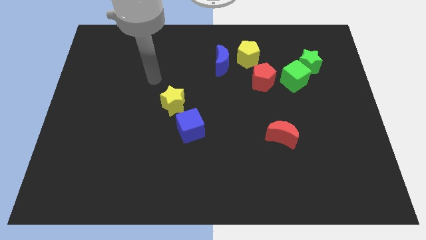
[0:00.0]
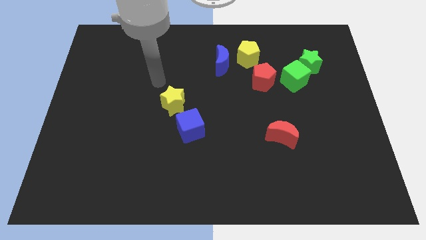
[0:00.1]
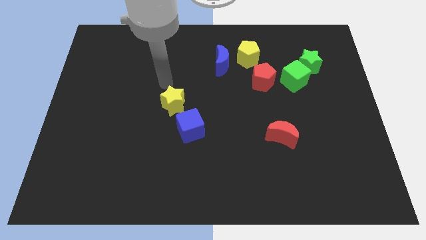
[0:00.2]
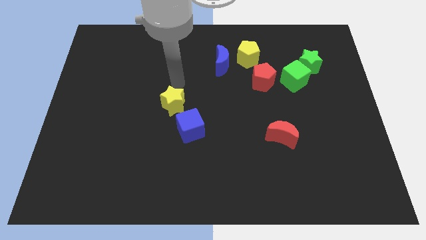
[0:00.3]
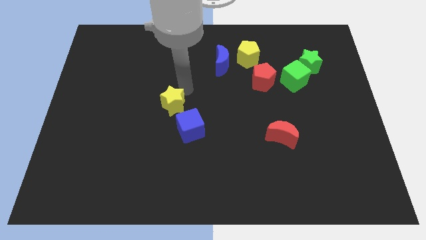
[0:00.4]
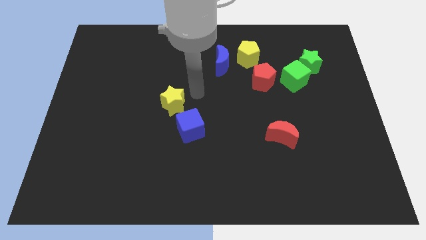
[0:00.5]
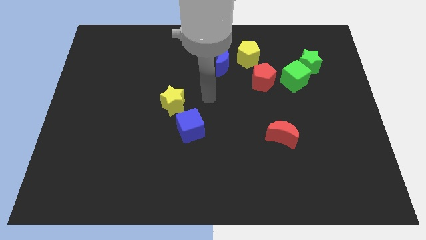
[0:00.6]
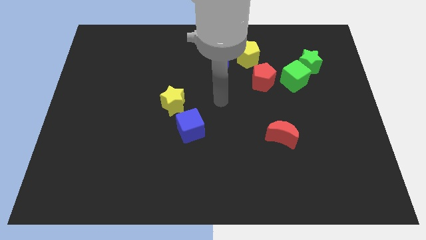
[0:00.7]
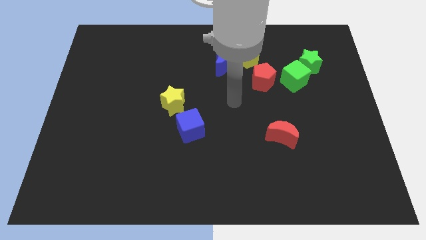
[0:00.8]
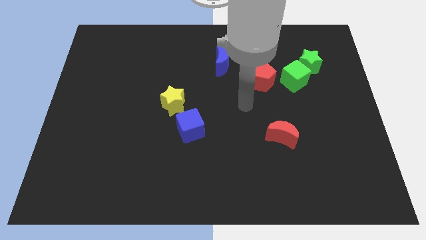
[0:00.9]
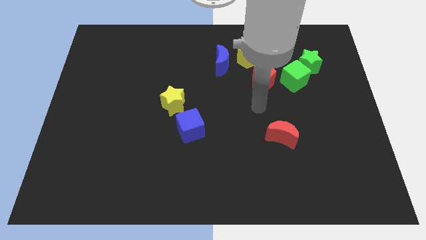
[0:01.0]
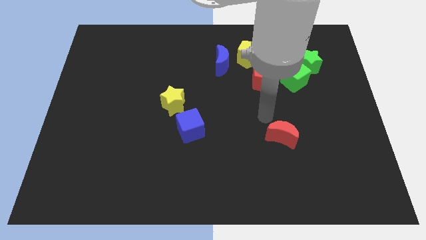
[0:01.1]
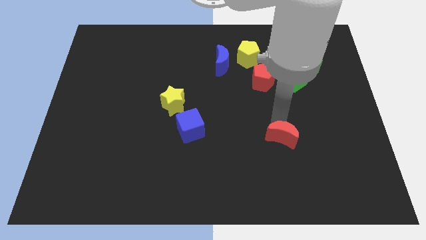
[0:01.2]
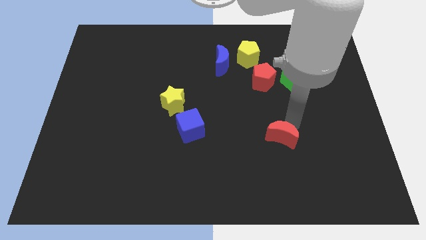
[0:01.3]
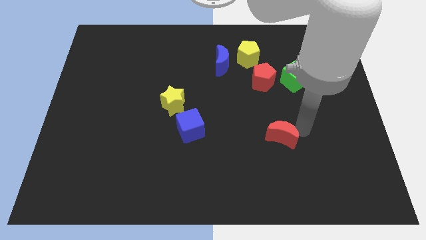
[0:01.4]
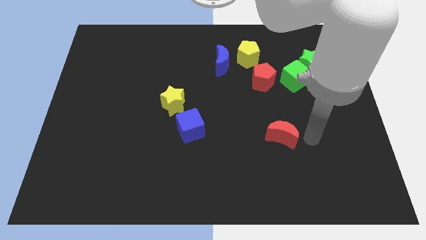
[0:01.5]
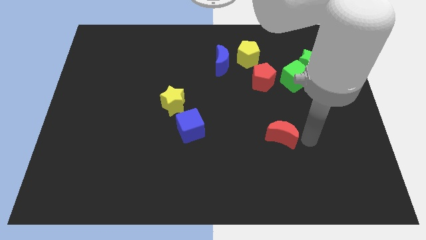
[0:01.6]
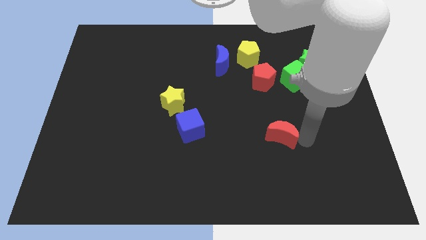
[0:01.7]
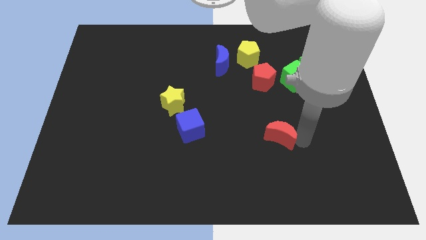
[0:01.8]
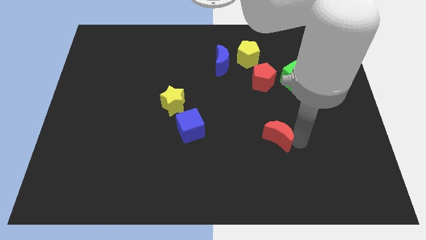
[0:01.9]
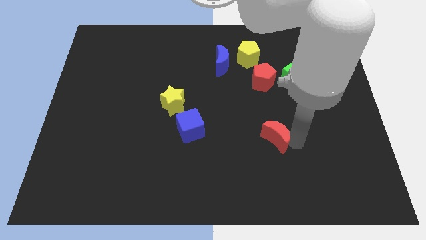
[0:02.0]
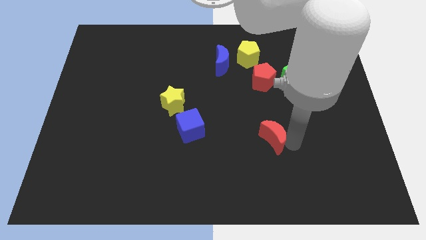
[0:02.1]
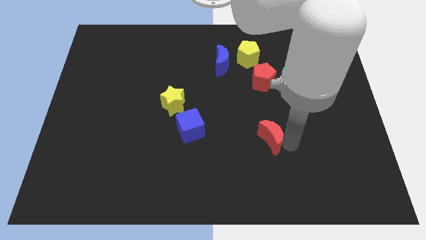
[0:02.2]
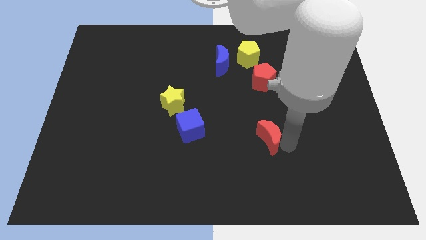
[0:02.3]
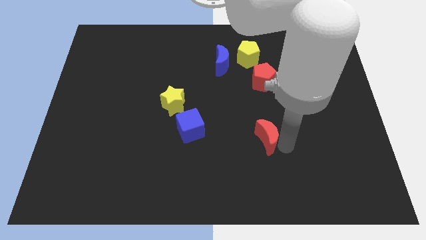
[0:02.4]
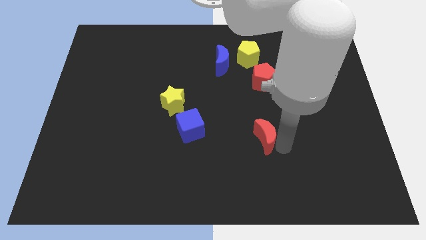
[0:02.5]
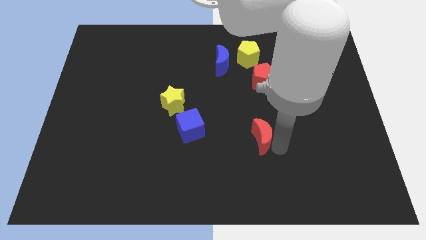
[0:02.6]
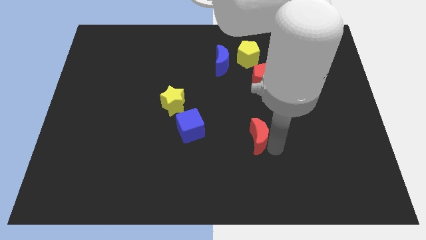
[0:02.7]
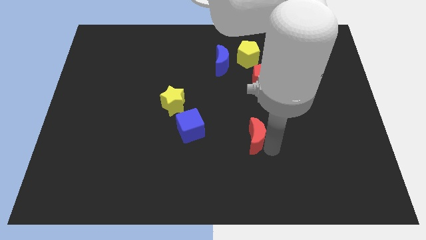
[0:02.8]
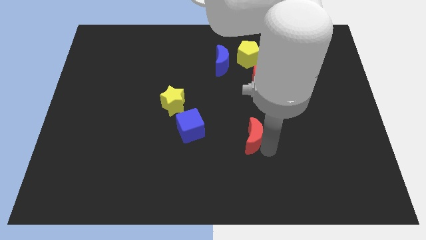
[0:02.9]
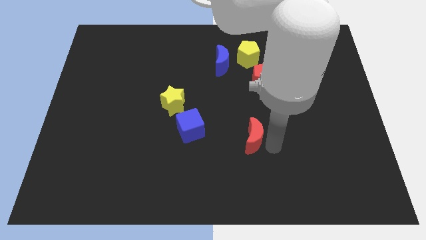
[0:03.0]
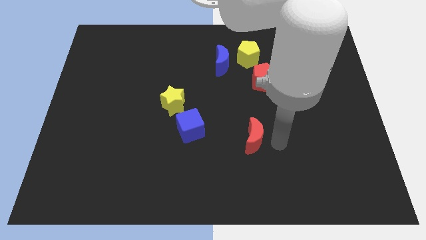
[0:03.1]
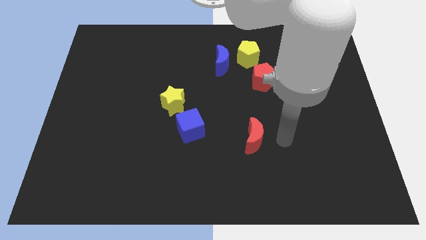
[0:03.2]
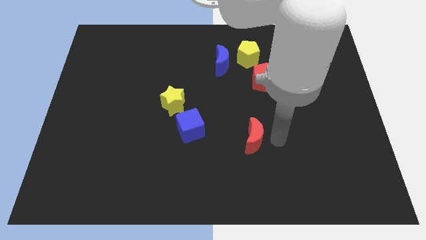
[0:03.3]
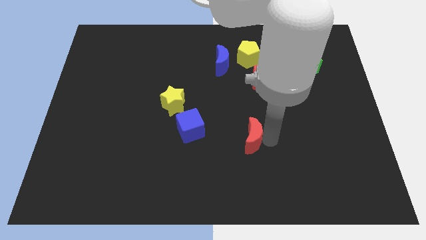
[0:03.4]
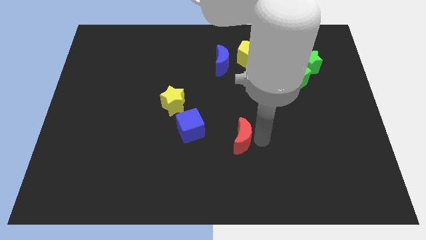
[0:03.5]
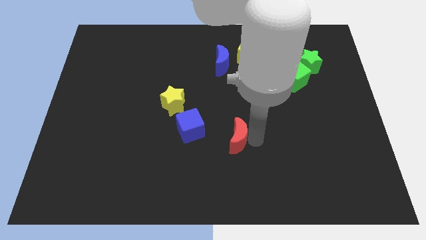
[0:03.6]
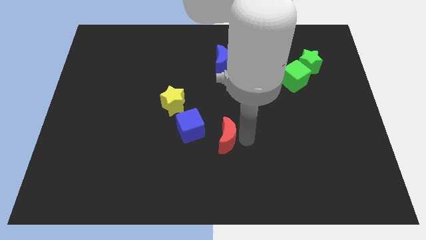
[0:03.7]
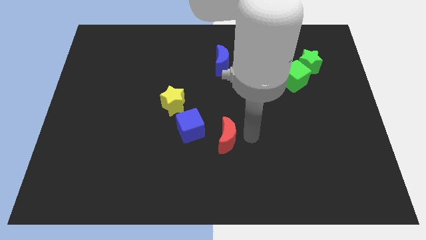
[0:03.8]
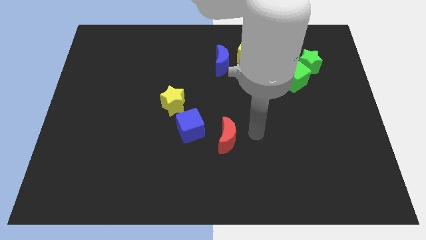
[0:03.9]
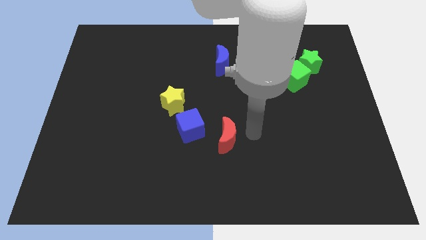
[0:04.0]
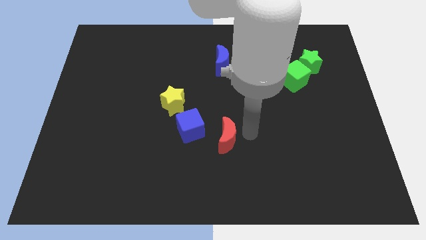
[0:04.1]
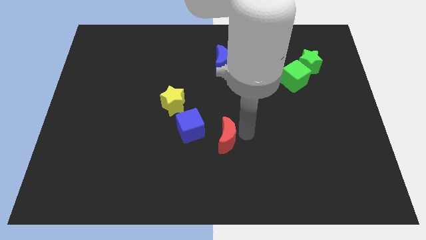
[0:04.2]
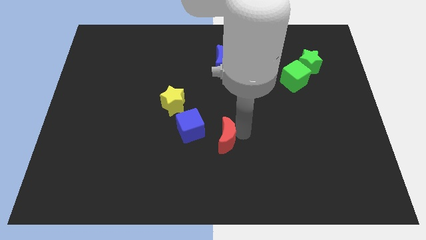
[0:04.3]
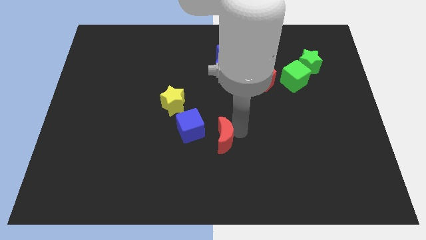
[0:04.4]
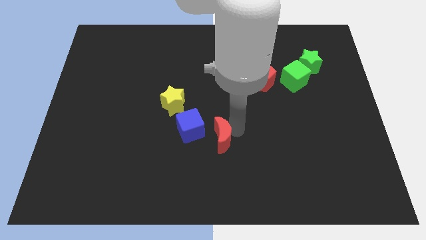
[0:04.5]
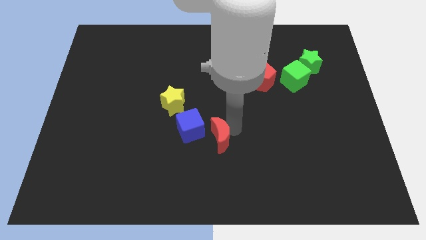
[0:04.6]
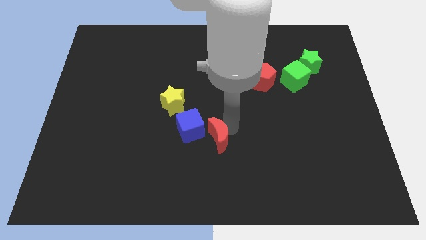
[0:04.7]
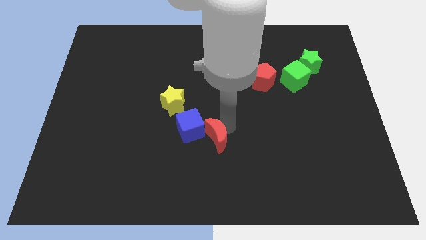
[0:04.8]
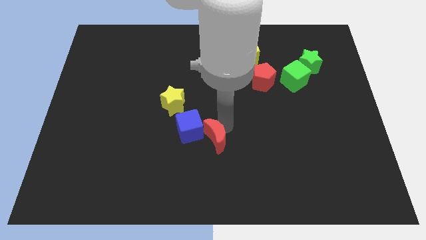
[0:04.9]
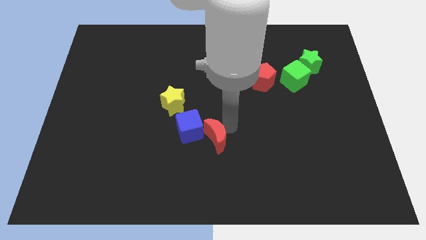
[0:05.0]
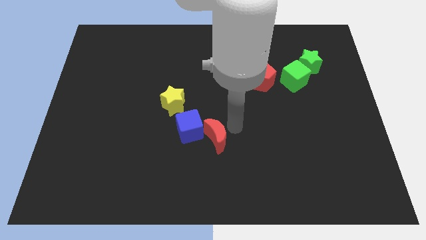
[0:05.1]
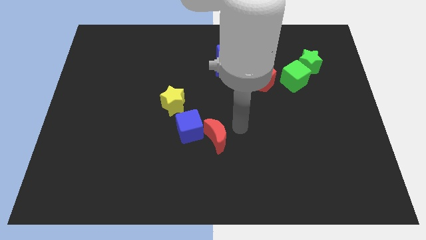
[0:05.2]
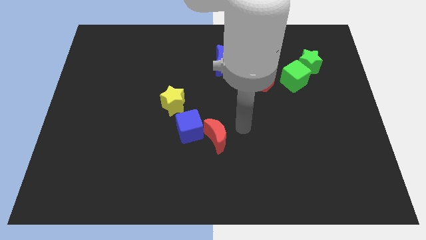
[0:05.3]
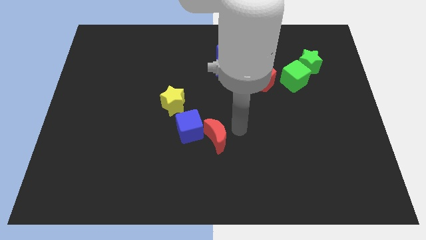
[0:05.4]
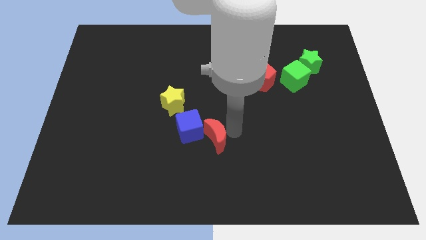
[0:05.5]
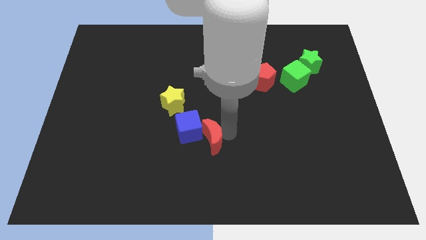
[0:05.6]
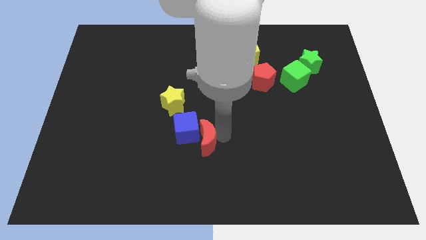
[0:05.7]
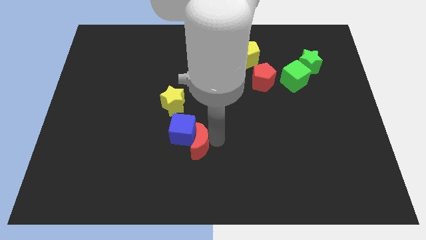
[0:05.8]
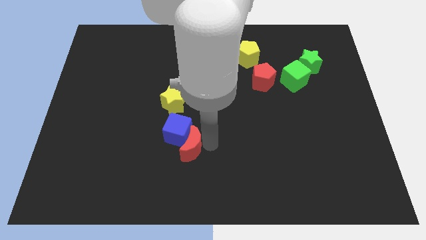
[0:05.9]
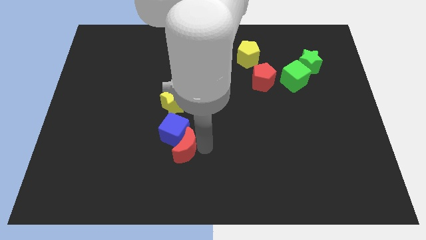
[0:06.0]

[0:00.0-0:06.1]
push the red moon to the left

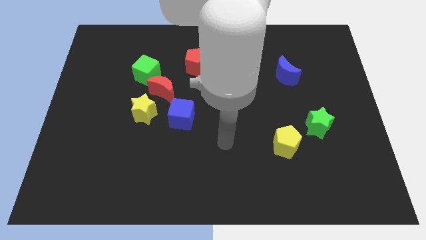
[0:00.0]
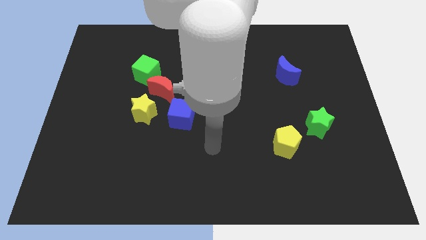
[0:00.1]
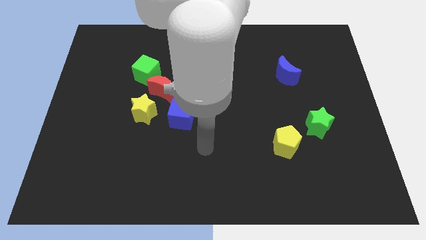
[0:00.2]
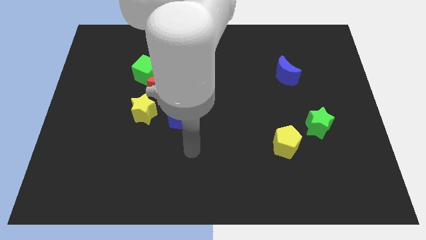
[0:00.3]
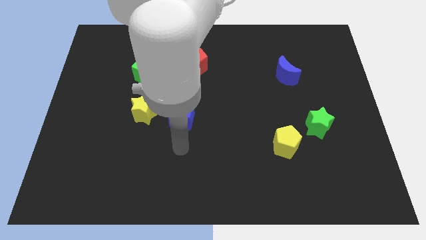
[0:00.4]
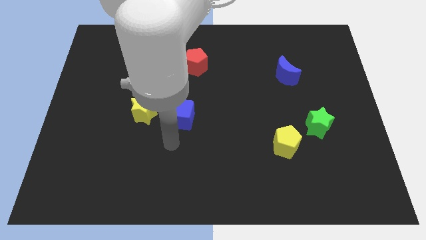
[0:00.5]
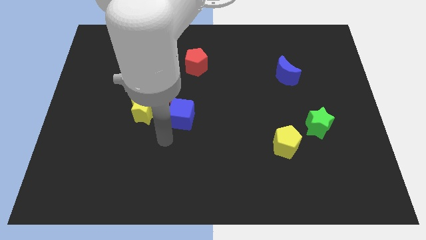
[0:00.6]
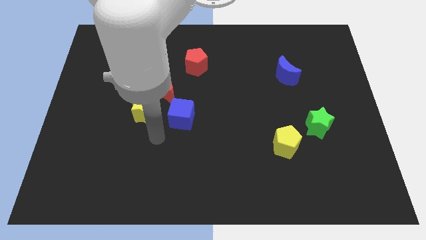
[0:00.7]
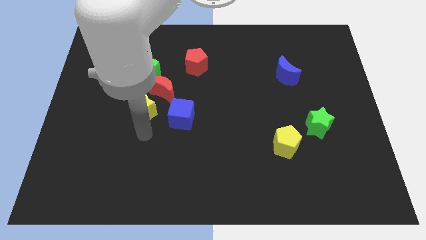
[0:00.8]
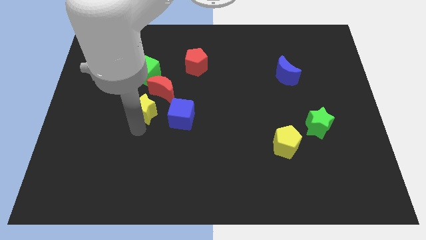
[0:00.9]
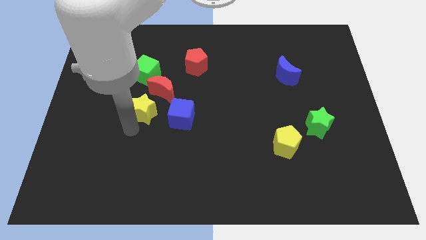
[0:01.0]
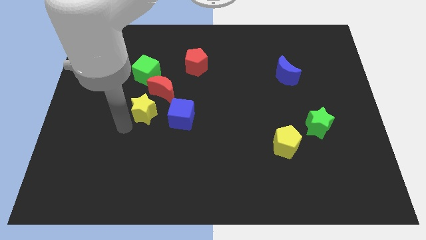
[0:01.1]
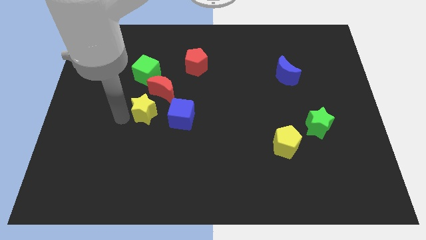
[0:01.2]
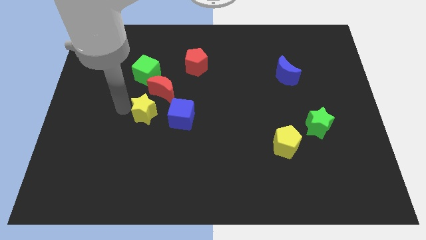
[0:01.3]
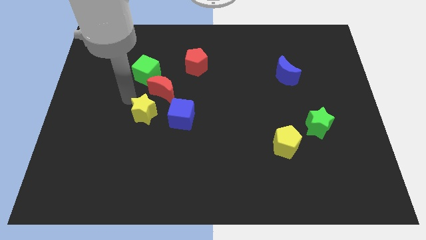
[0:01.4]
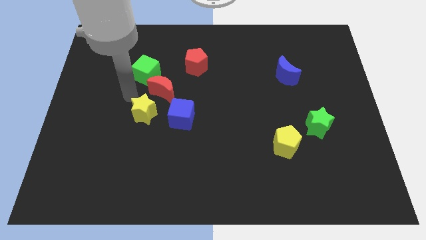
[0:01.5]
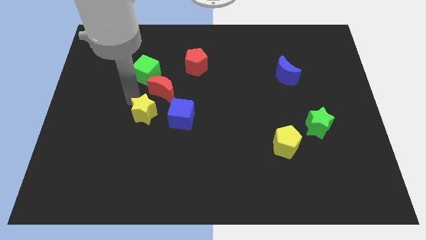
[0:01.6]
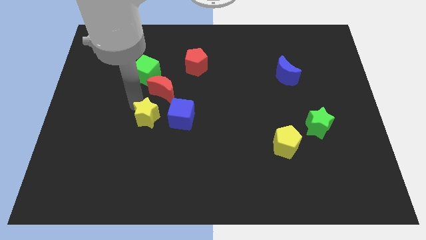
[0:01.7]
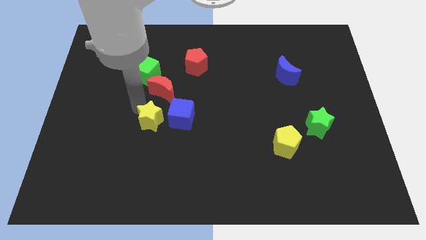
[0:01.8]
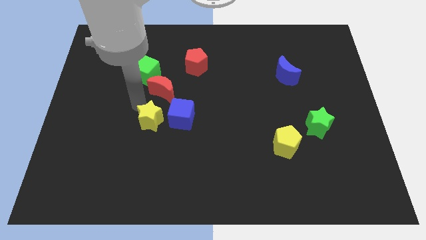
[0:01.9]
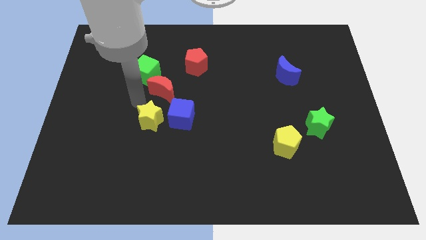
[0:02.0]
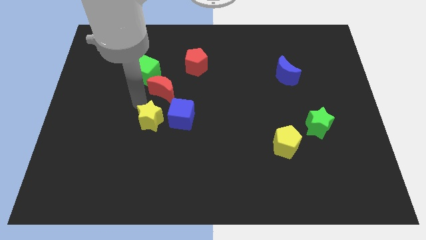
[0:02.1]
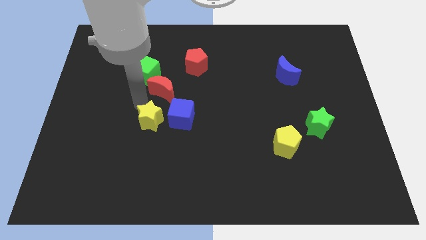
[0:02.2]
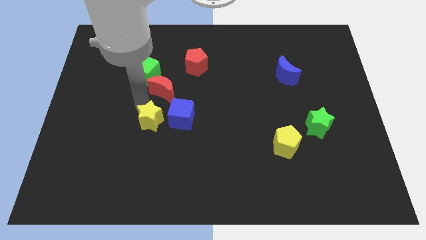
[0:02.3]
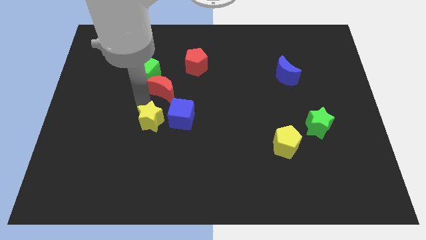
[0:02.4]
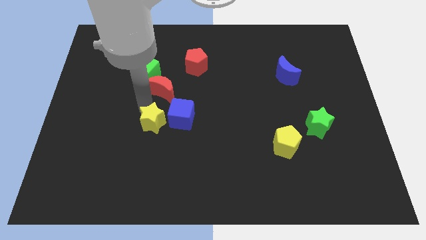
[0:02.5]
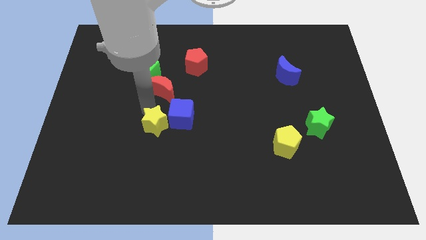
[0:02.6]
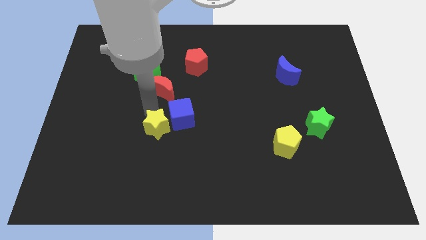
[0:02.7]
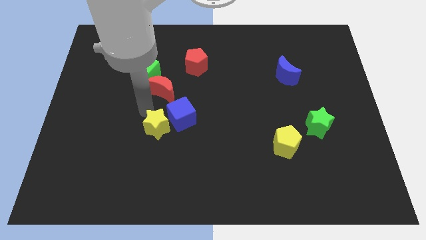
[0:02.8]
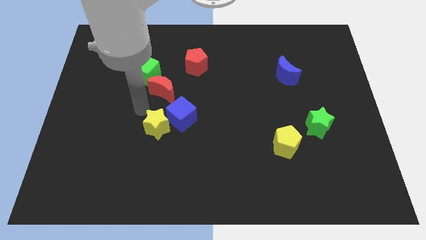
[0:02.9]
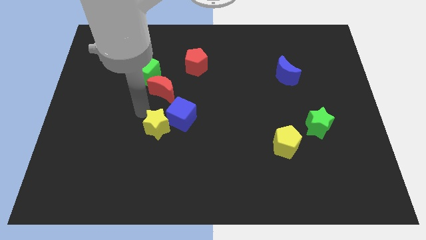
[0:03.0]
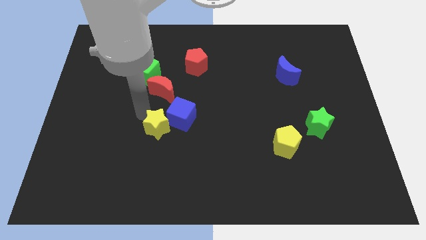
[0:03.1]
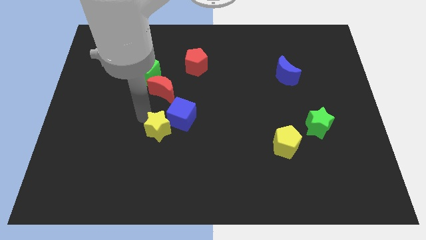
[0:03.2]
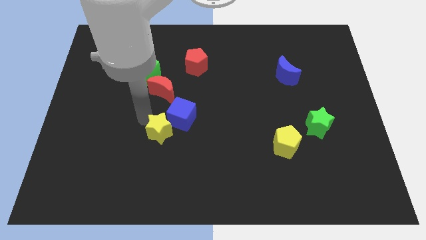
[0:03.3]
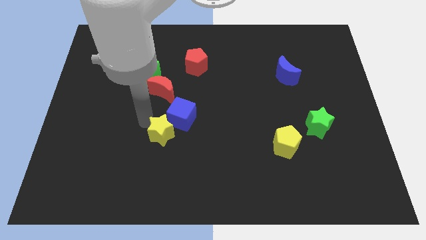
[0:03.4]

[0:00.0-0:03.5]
slightly move the yellow star down and right diagonally
